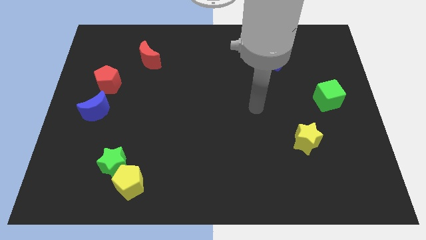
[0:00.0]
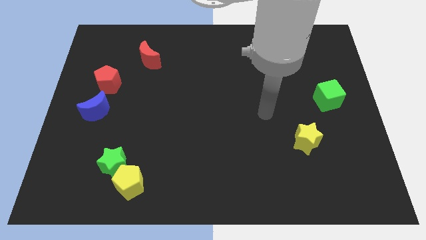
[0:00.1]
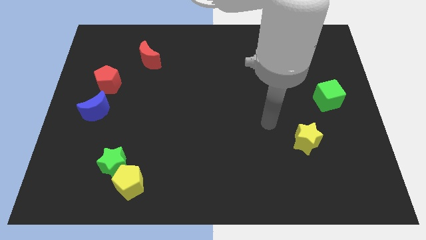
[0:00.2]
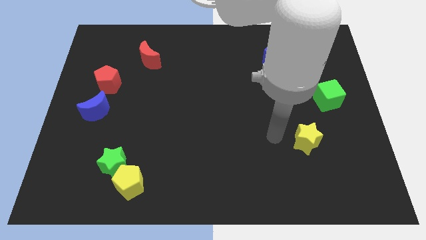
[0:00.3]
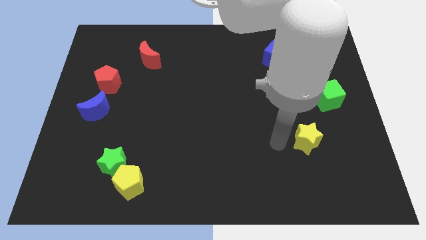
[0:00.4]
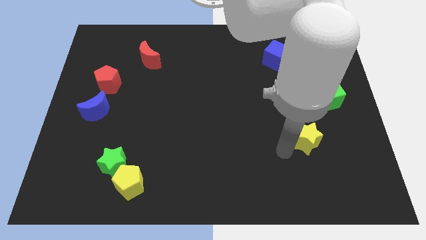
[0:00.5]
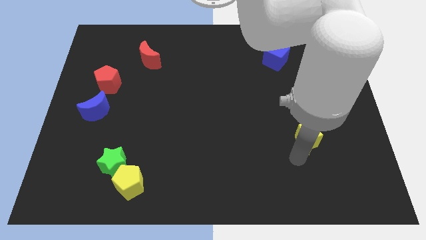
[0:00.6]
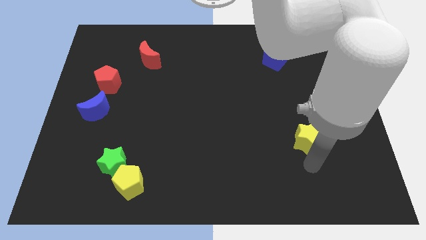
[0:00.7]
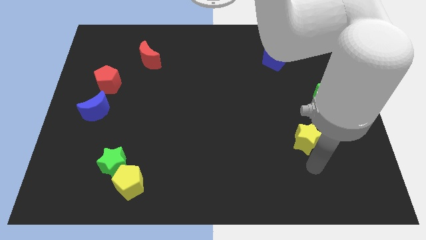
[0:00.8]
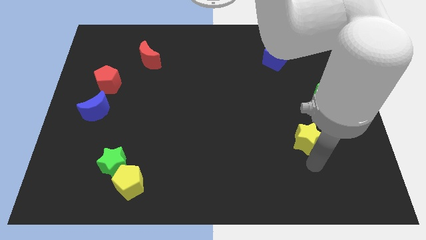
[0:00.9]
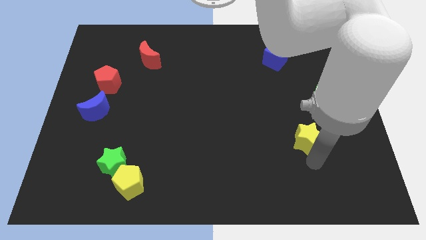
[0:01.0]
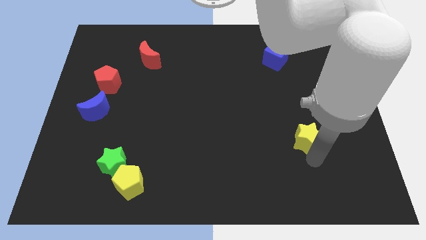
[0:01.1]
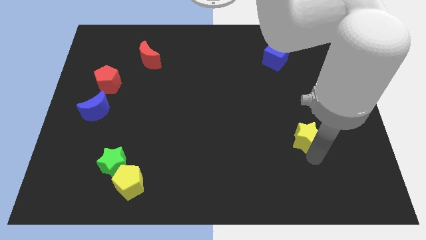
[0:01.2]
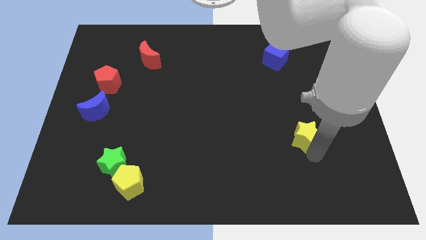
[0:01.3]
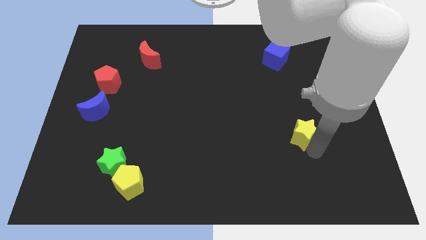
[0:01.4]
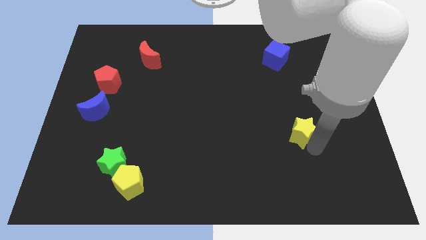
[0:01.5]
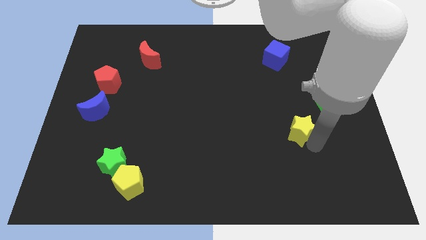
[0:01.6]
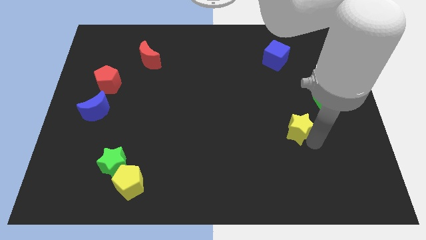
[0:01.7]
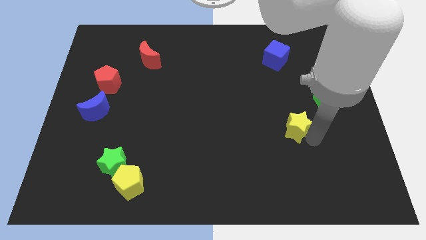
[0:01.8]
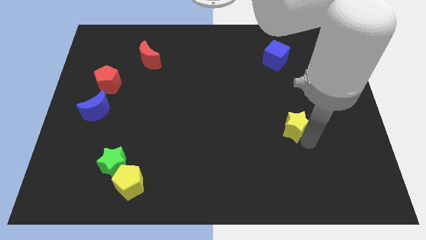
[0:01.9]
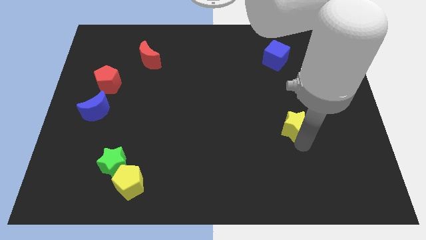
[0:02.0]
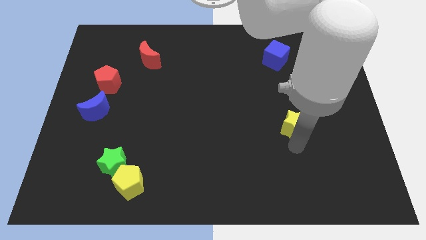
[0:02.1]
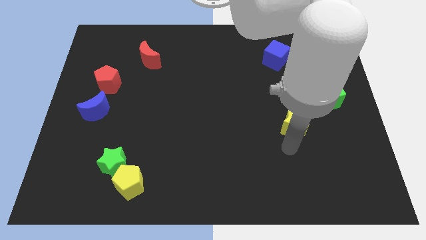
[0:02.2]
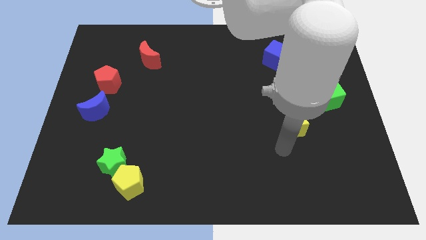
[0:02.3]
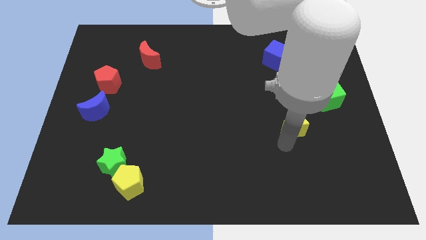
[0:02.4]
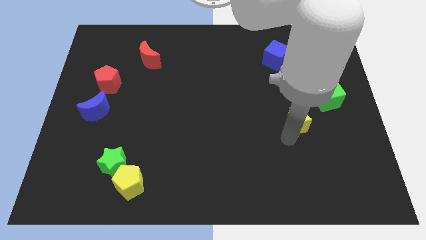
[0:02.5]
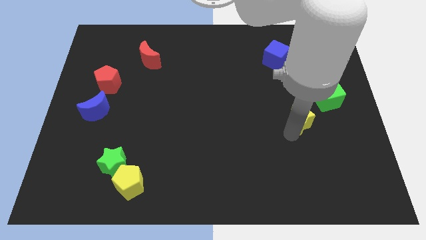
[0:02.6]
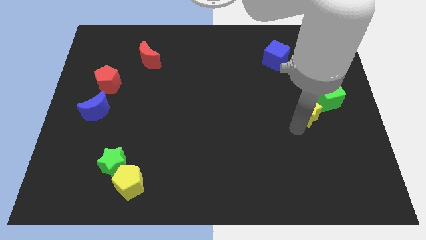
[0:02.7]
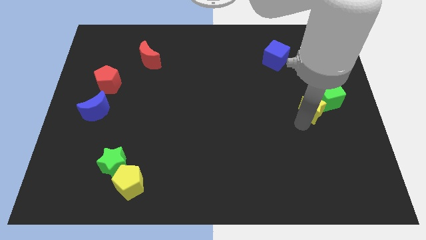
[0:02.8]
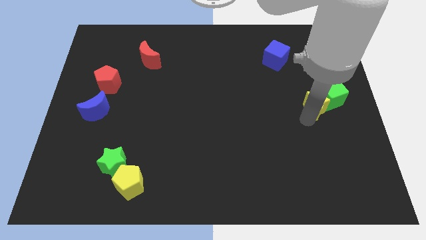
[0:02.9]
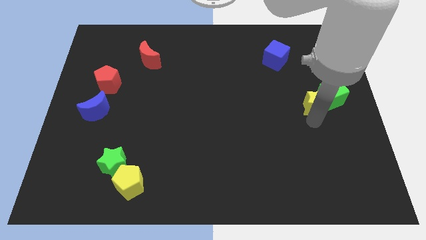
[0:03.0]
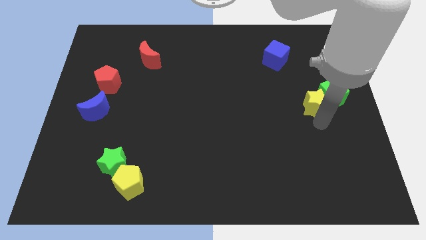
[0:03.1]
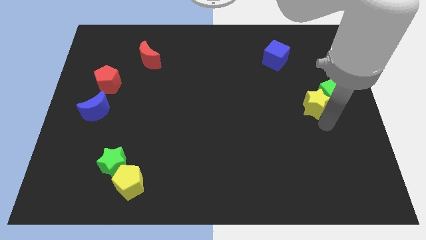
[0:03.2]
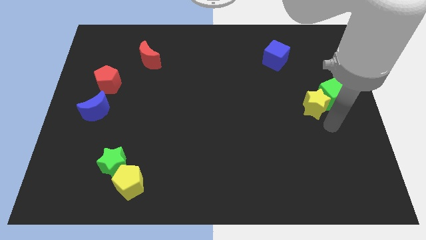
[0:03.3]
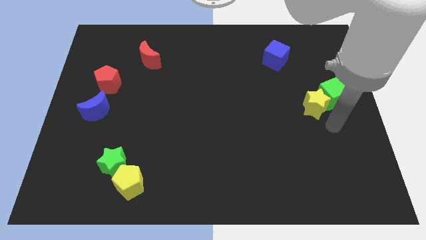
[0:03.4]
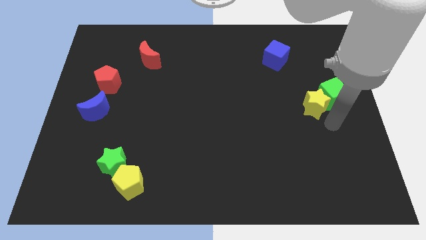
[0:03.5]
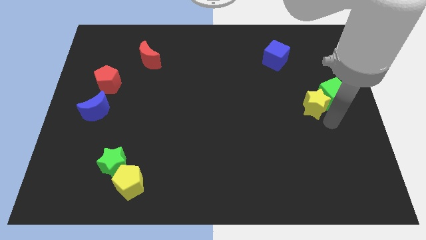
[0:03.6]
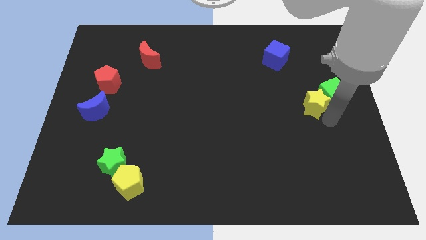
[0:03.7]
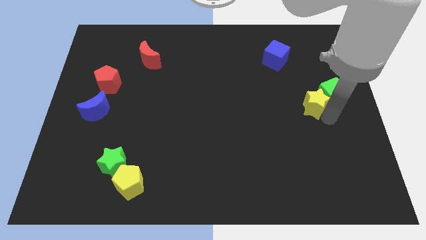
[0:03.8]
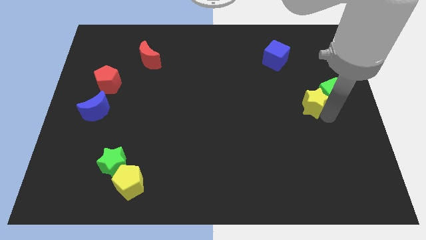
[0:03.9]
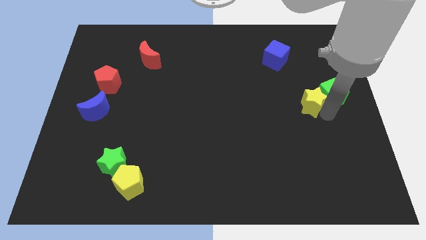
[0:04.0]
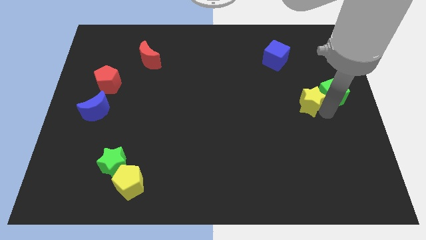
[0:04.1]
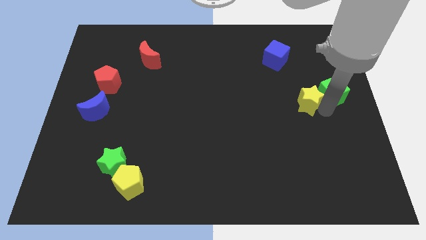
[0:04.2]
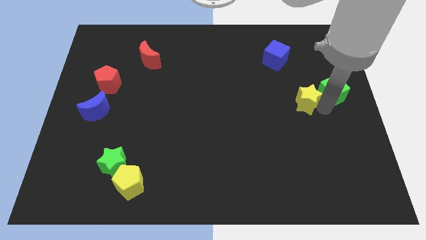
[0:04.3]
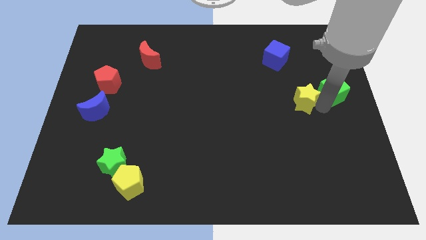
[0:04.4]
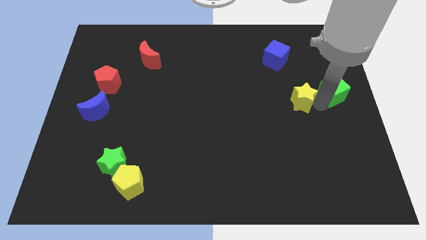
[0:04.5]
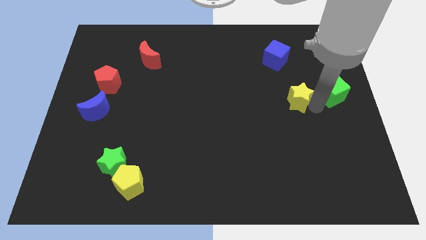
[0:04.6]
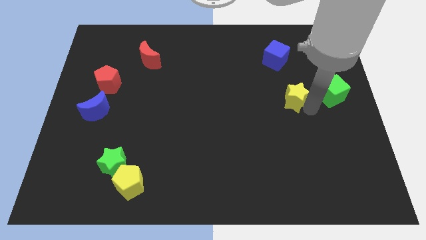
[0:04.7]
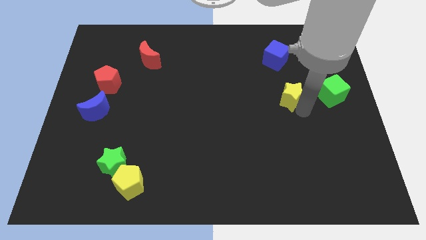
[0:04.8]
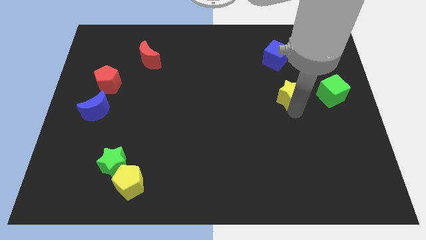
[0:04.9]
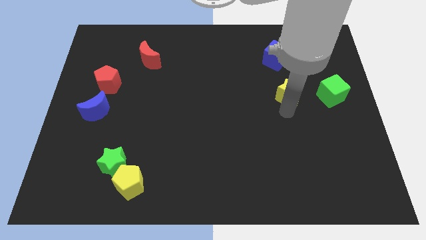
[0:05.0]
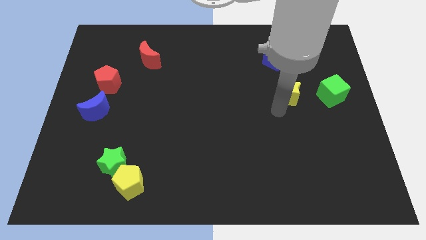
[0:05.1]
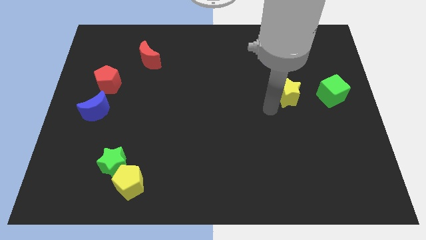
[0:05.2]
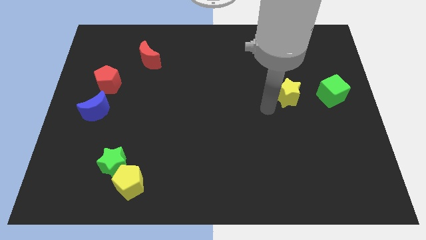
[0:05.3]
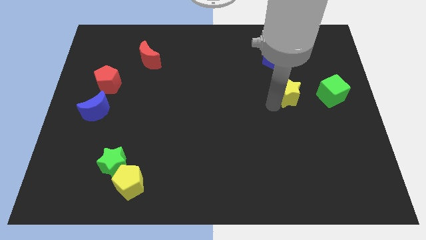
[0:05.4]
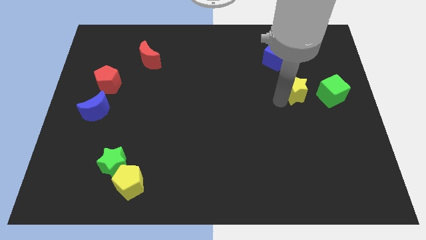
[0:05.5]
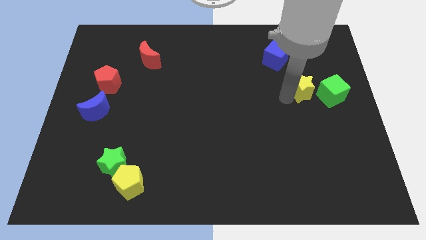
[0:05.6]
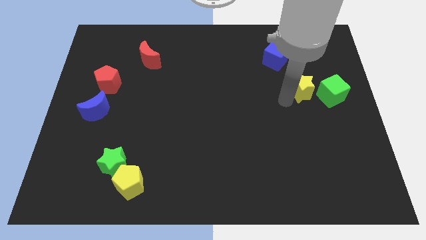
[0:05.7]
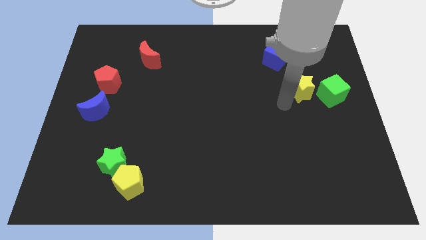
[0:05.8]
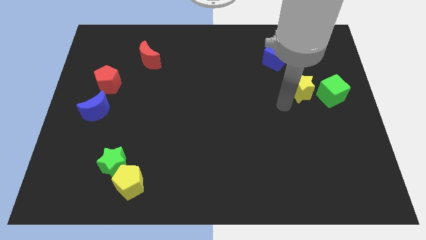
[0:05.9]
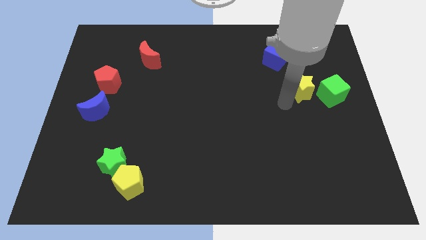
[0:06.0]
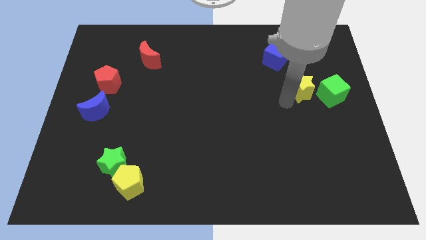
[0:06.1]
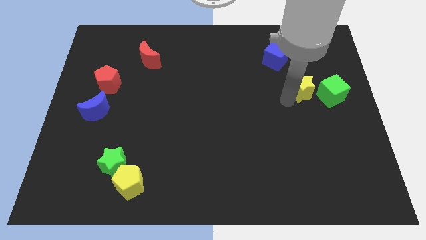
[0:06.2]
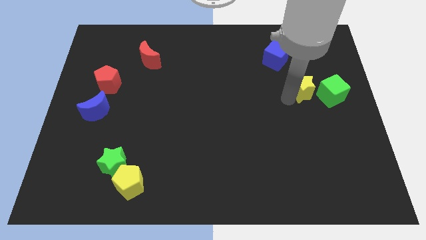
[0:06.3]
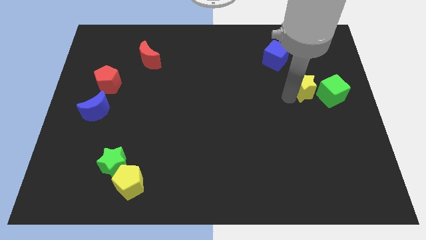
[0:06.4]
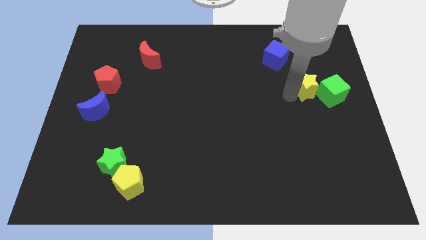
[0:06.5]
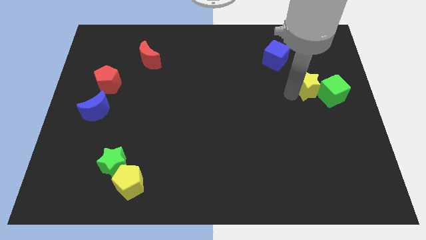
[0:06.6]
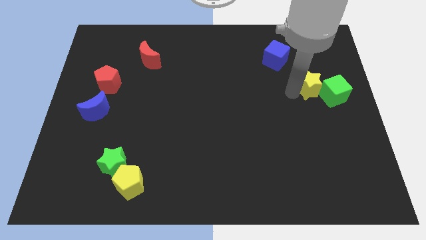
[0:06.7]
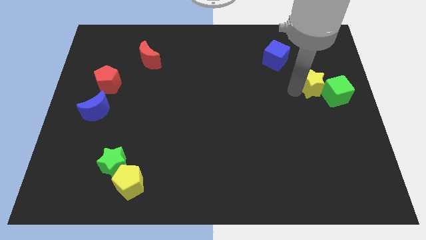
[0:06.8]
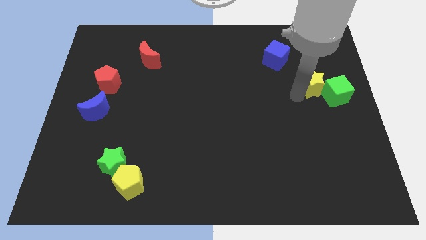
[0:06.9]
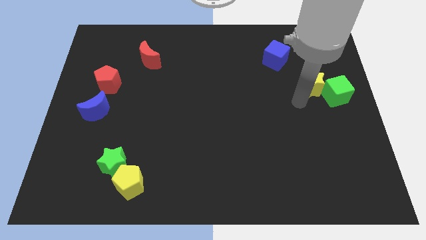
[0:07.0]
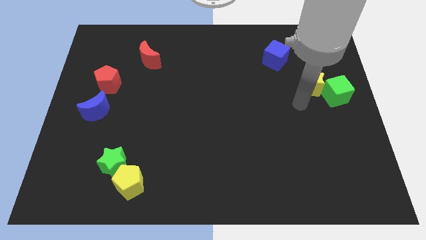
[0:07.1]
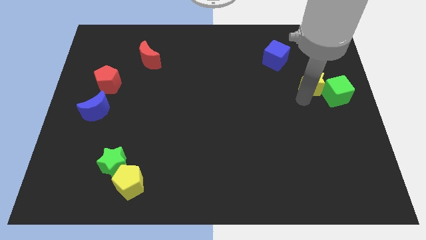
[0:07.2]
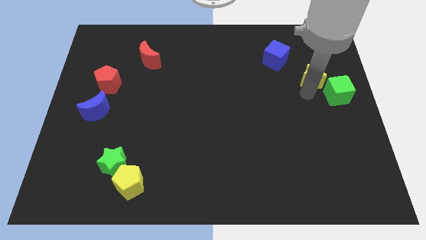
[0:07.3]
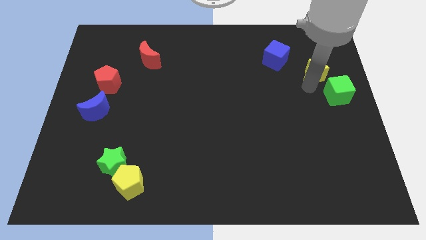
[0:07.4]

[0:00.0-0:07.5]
slide the yellow star above the green cube
